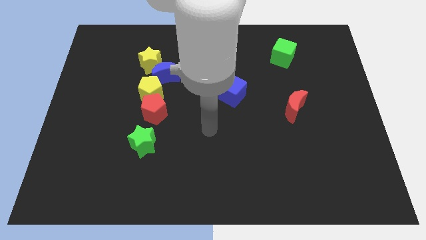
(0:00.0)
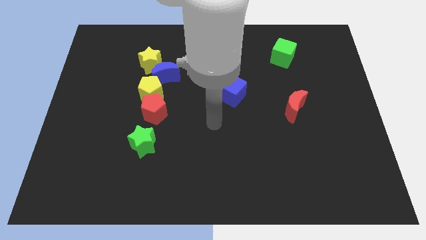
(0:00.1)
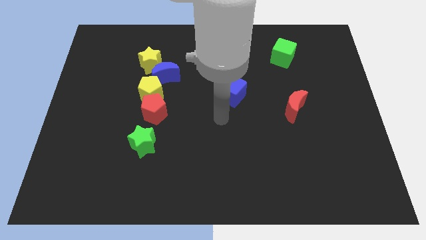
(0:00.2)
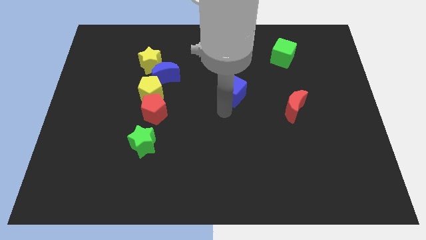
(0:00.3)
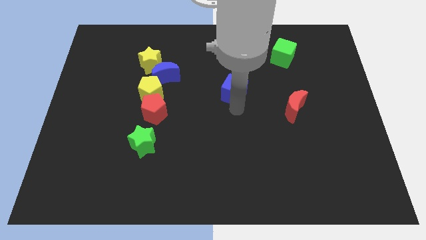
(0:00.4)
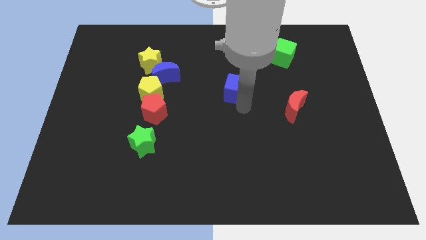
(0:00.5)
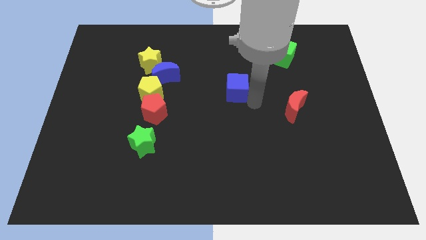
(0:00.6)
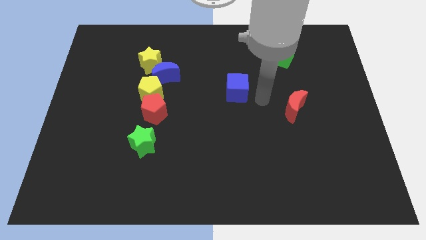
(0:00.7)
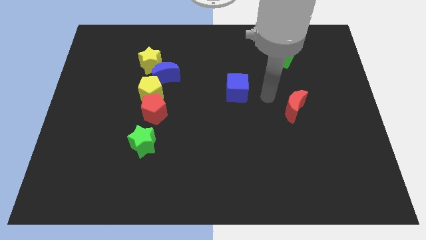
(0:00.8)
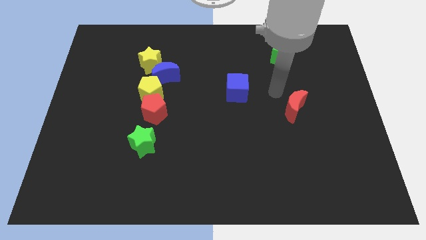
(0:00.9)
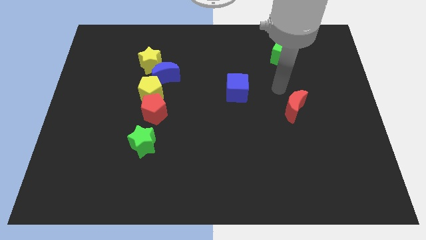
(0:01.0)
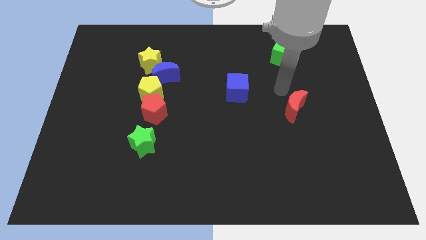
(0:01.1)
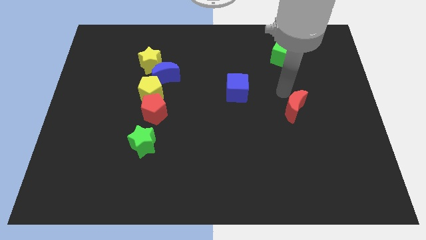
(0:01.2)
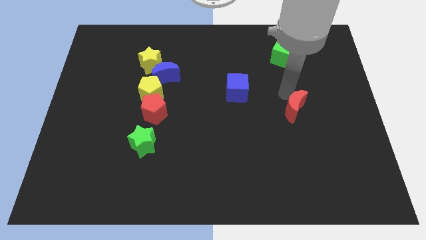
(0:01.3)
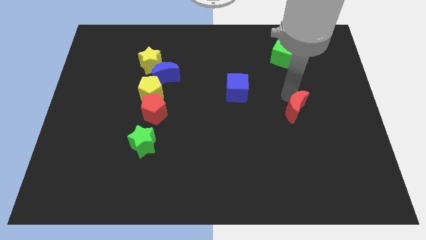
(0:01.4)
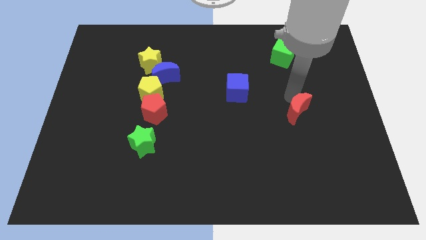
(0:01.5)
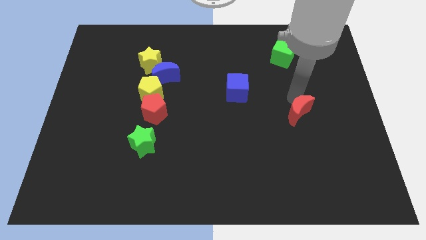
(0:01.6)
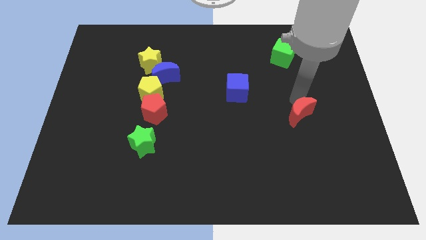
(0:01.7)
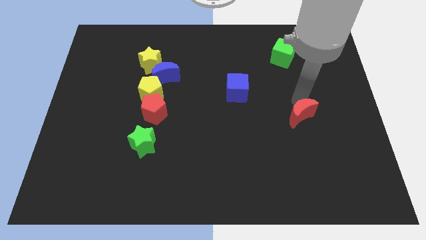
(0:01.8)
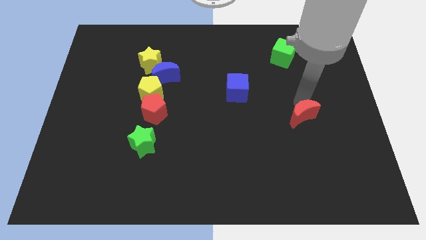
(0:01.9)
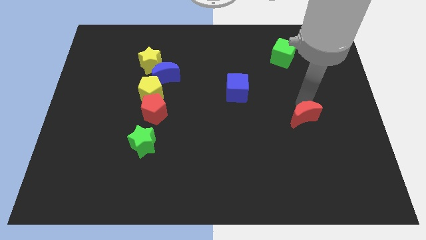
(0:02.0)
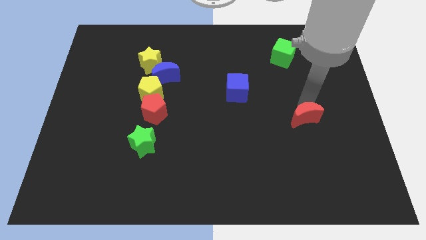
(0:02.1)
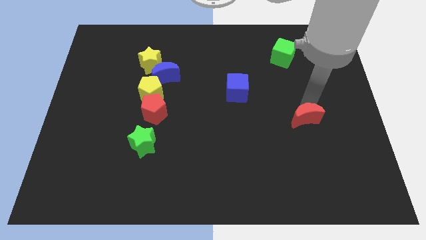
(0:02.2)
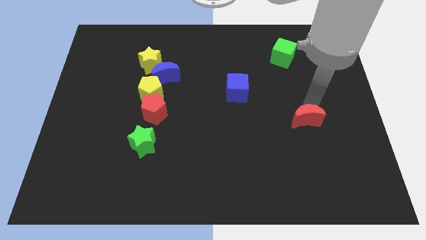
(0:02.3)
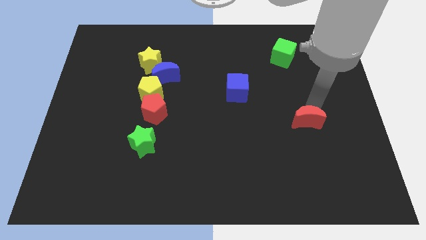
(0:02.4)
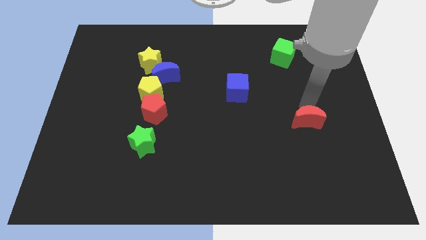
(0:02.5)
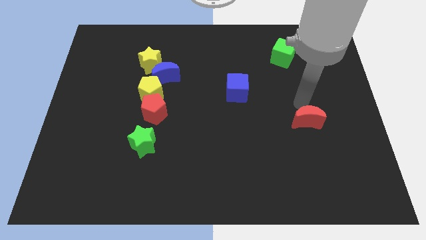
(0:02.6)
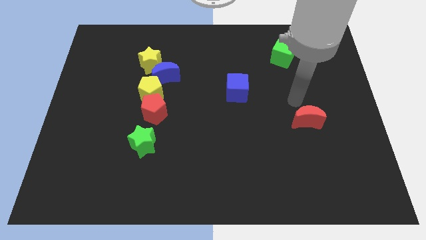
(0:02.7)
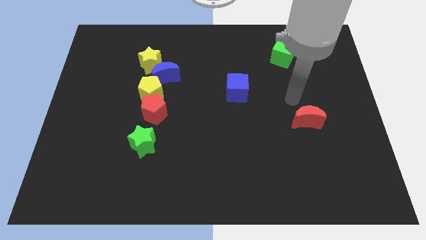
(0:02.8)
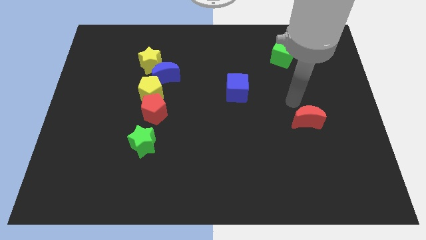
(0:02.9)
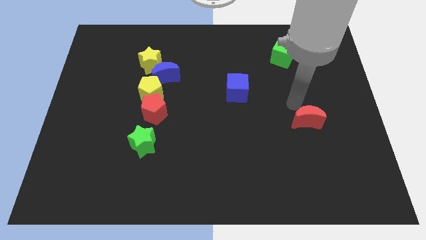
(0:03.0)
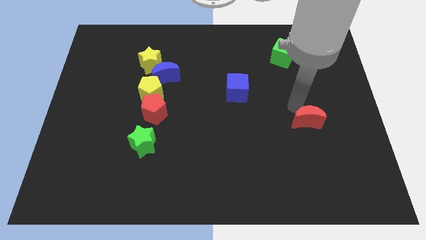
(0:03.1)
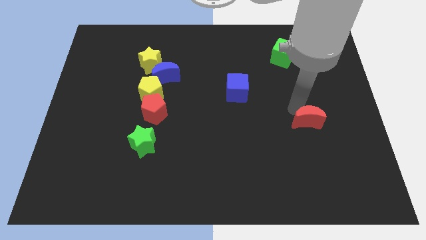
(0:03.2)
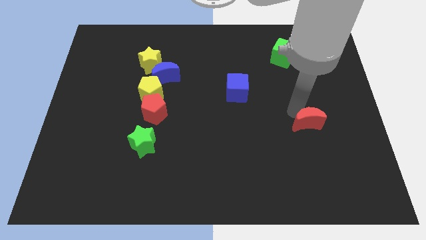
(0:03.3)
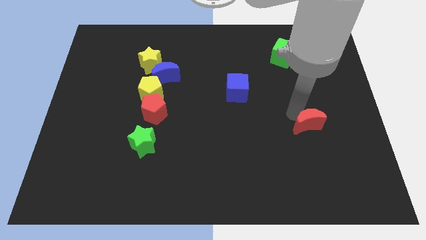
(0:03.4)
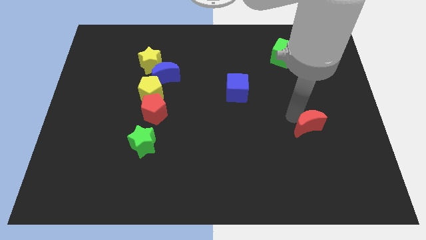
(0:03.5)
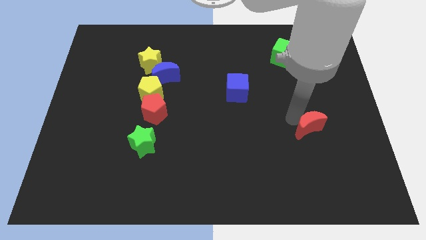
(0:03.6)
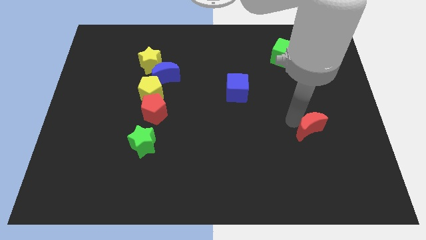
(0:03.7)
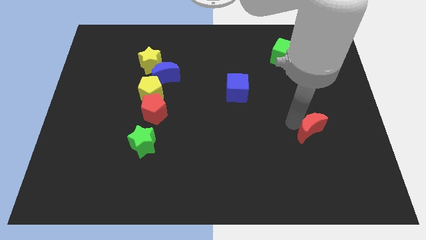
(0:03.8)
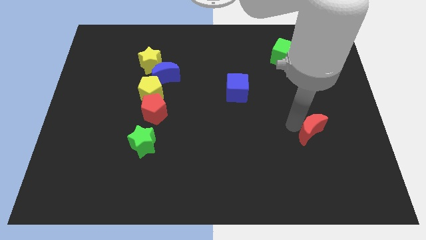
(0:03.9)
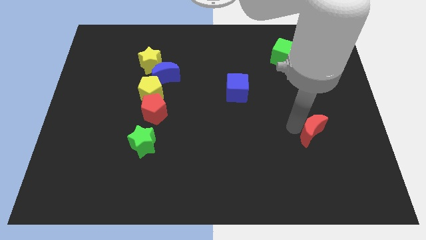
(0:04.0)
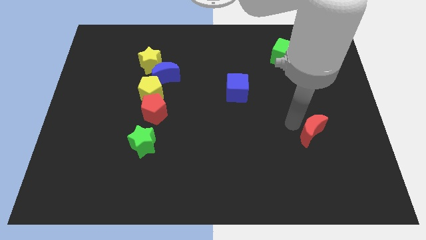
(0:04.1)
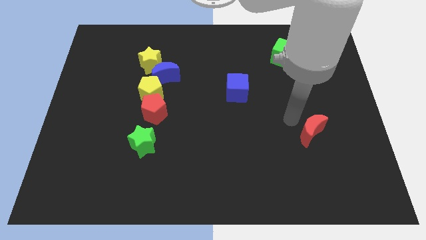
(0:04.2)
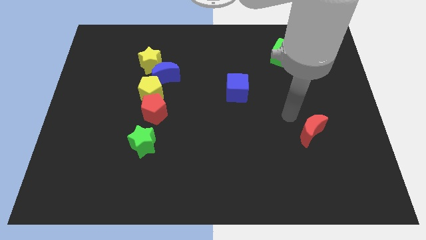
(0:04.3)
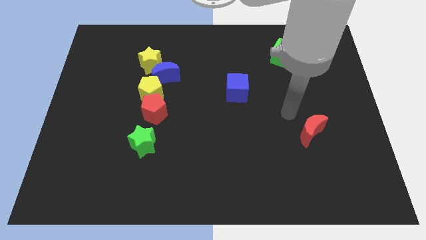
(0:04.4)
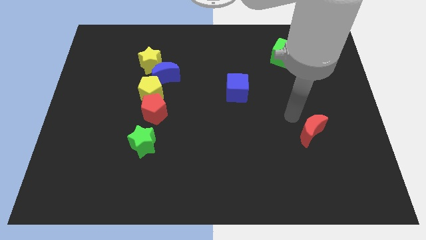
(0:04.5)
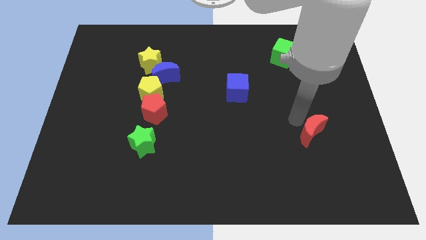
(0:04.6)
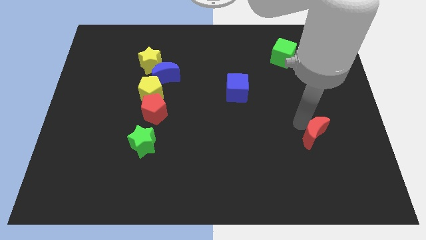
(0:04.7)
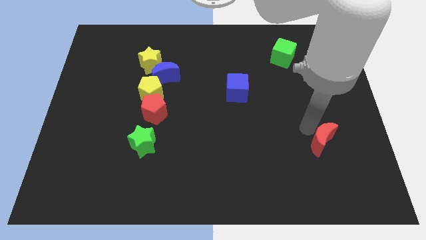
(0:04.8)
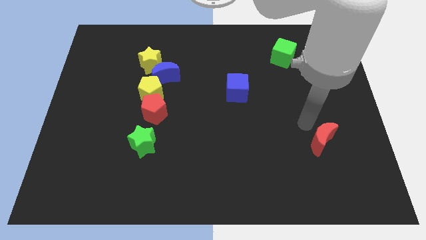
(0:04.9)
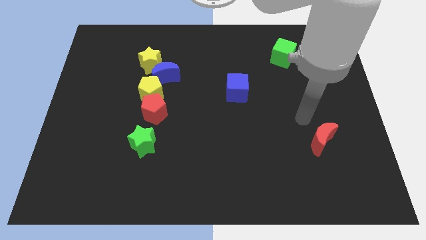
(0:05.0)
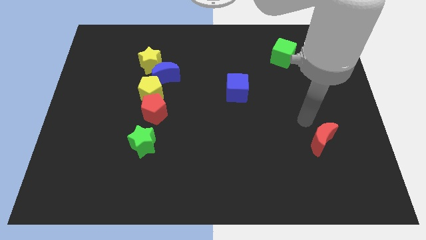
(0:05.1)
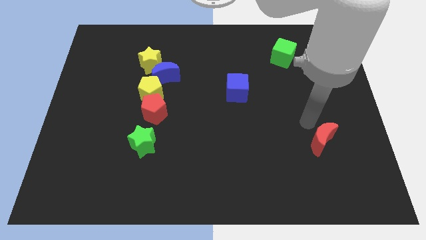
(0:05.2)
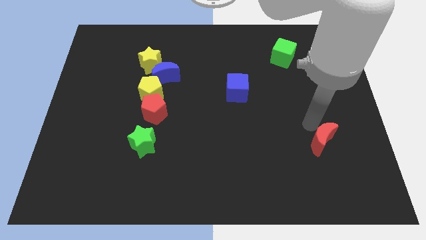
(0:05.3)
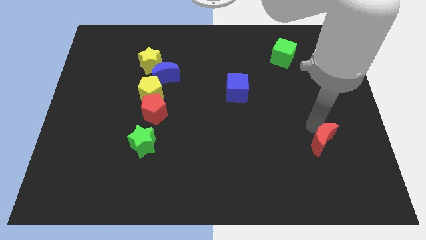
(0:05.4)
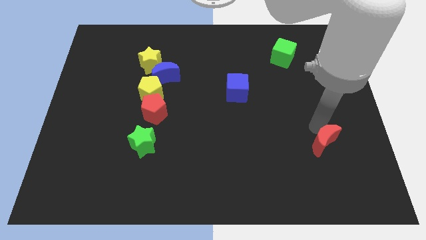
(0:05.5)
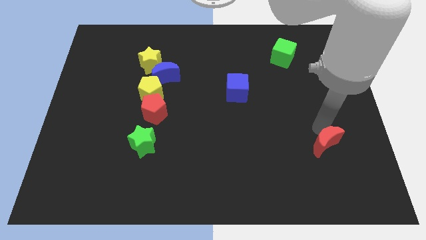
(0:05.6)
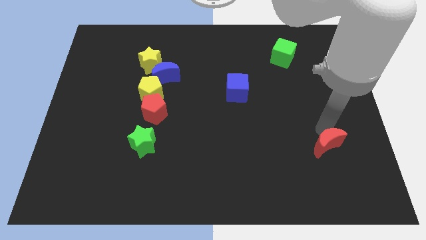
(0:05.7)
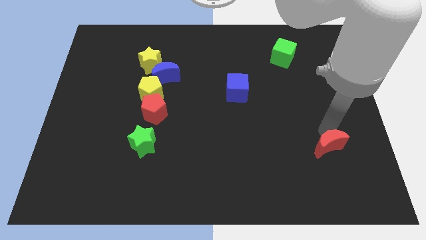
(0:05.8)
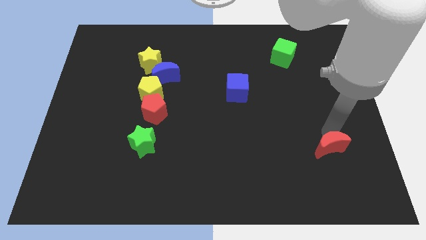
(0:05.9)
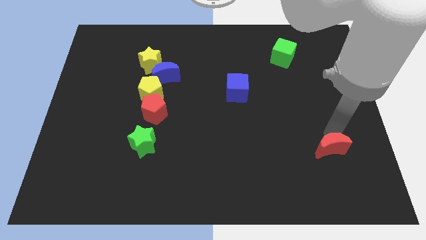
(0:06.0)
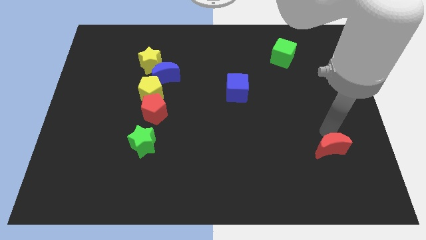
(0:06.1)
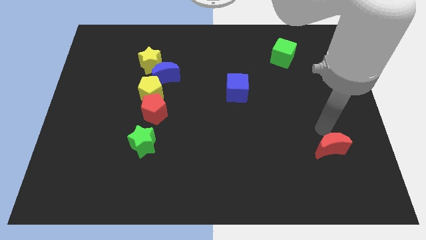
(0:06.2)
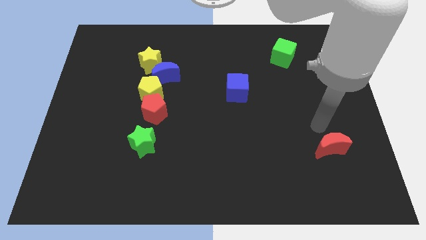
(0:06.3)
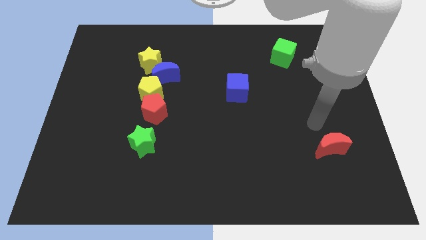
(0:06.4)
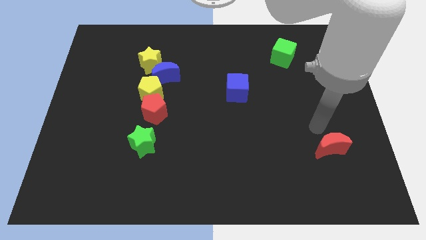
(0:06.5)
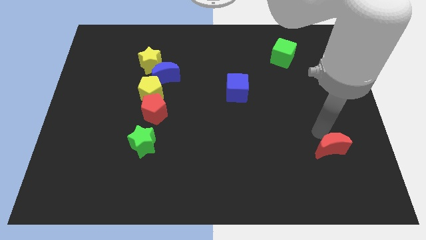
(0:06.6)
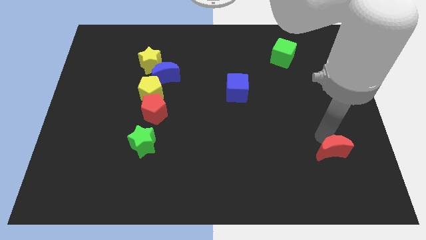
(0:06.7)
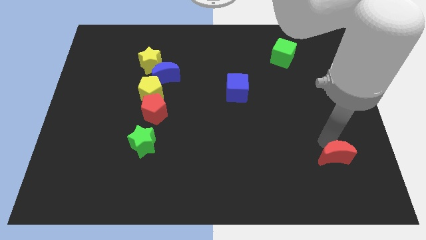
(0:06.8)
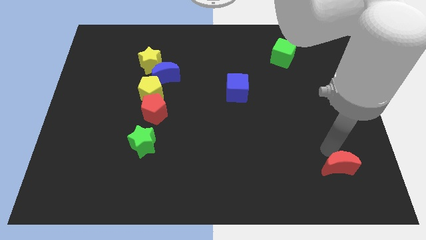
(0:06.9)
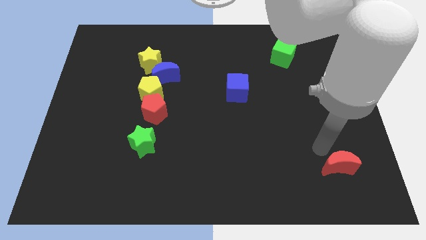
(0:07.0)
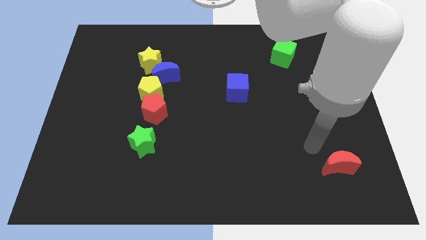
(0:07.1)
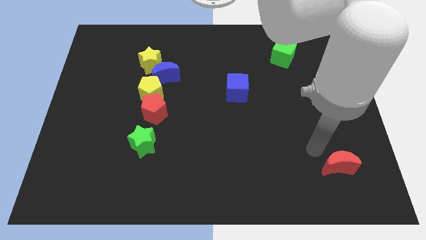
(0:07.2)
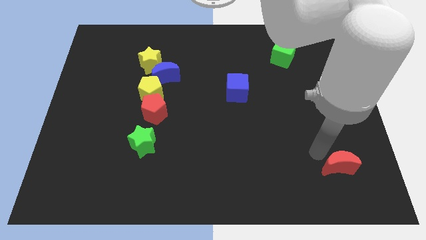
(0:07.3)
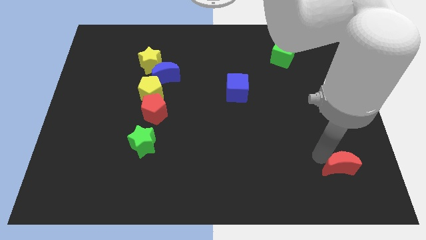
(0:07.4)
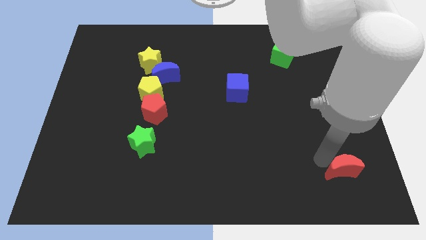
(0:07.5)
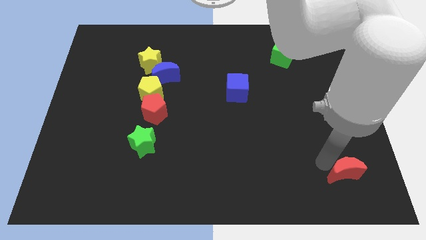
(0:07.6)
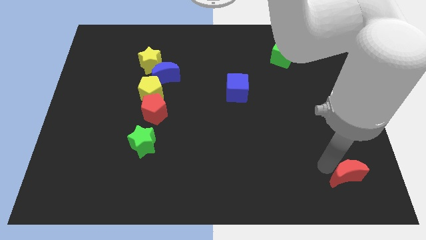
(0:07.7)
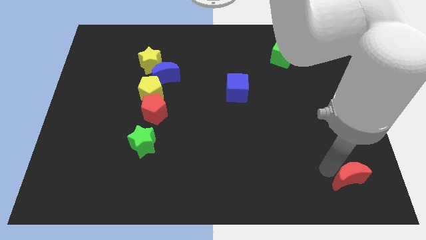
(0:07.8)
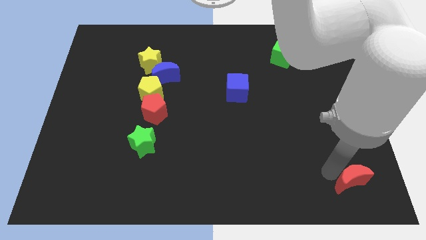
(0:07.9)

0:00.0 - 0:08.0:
put the red moon to the bottom right
